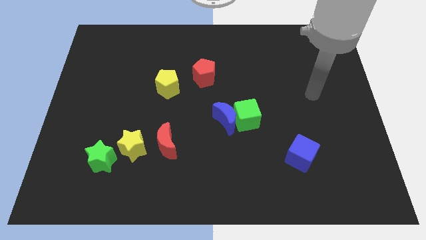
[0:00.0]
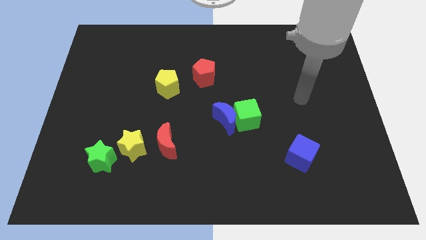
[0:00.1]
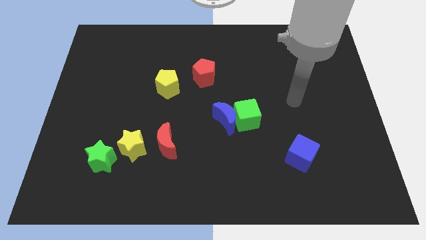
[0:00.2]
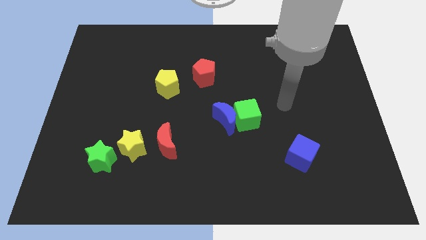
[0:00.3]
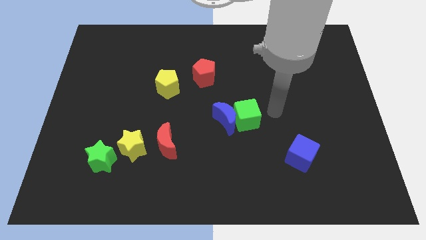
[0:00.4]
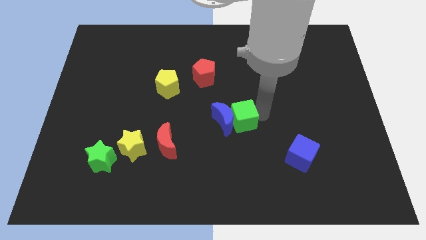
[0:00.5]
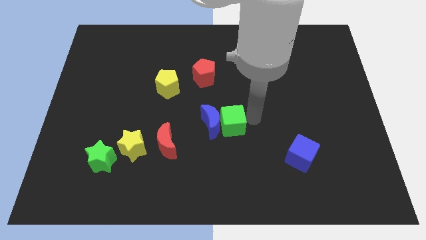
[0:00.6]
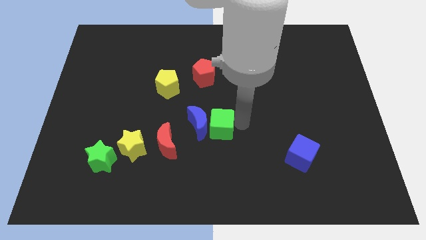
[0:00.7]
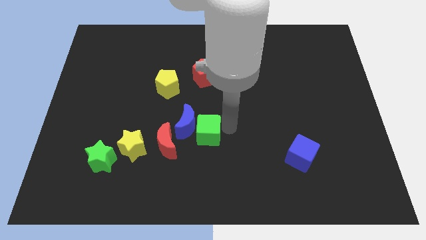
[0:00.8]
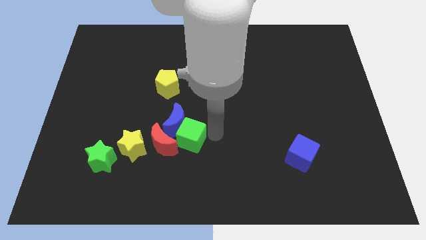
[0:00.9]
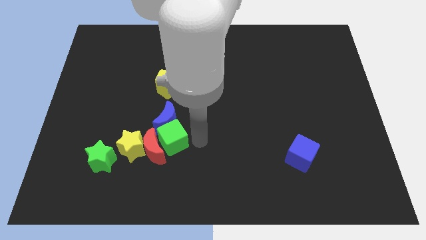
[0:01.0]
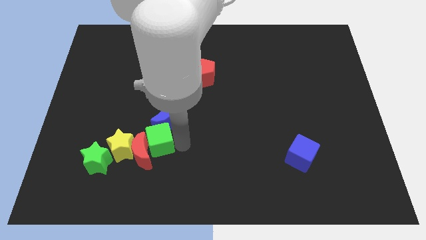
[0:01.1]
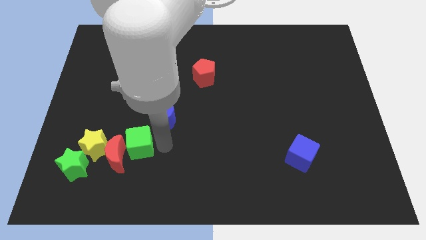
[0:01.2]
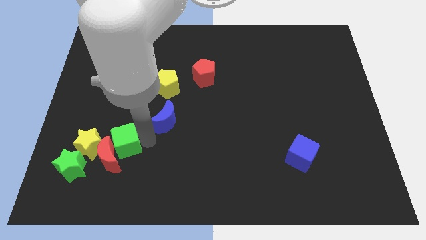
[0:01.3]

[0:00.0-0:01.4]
separate the blue moon from the green cube

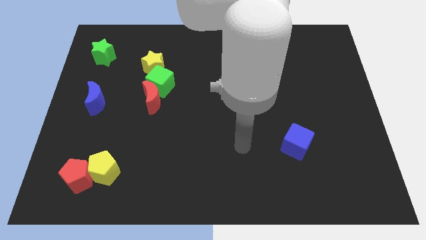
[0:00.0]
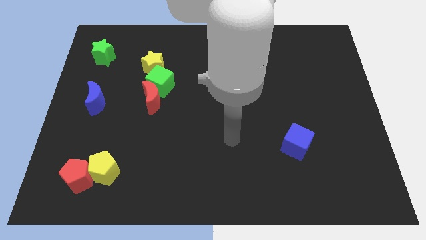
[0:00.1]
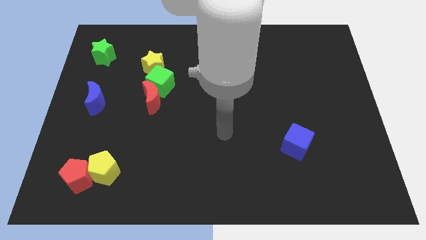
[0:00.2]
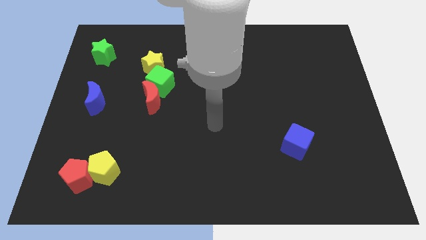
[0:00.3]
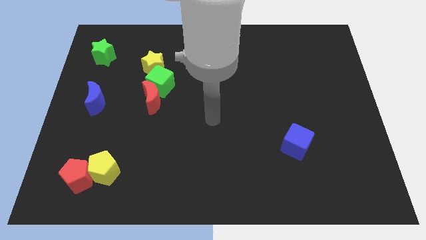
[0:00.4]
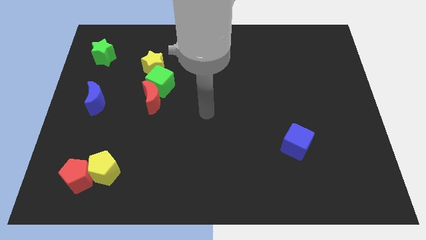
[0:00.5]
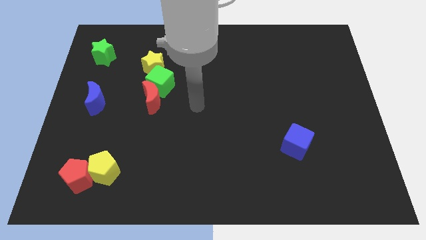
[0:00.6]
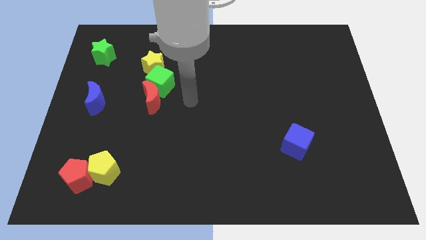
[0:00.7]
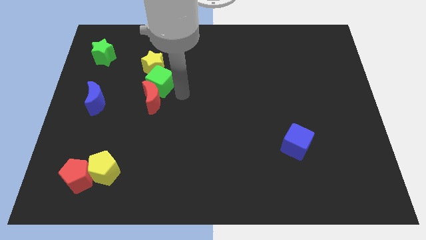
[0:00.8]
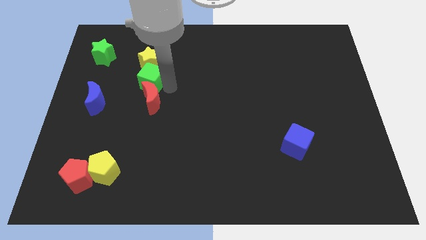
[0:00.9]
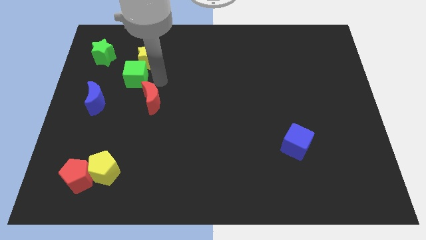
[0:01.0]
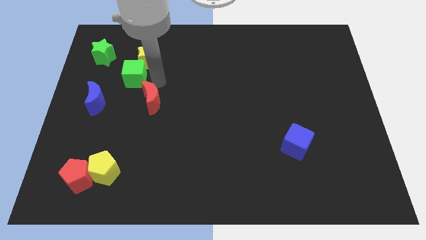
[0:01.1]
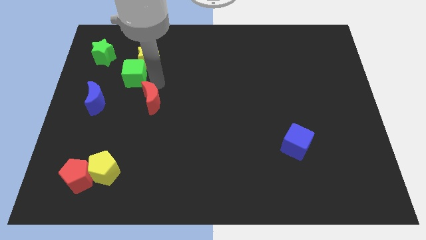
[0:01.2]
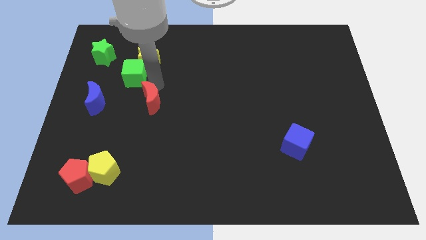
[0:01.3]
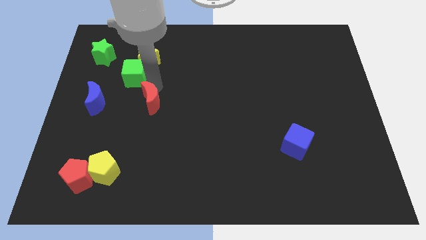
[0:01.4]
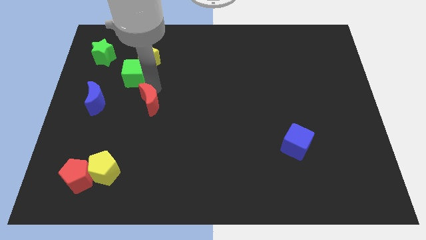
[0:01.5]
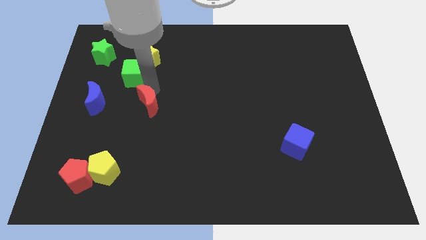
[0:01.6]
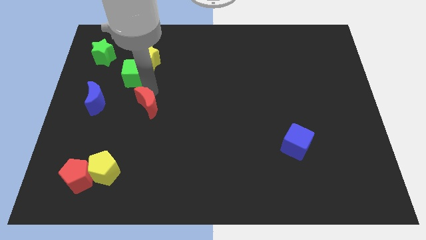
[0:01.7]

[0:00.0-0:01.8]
pull the red moon apart from the green cube

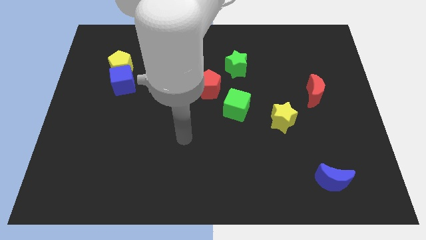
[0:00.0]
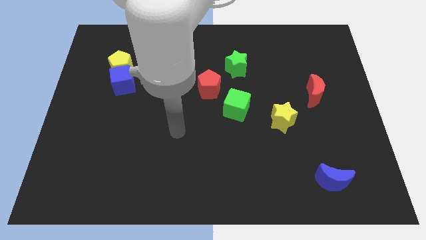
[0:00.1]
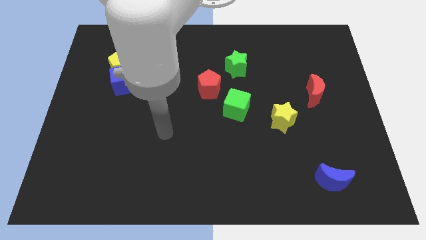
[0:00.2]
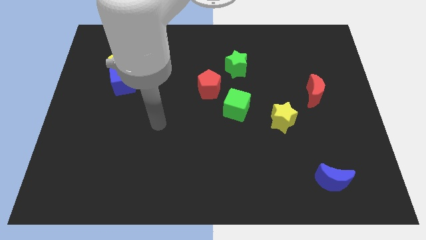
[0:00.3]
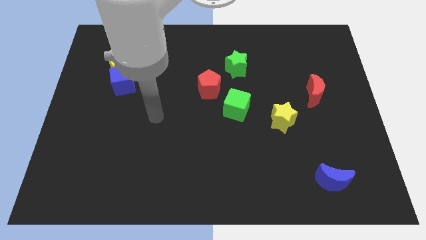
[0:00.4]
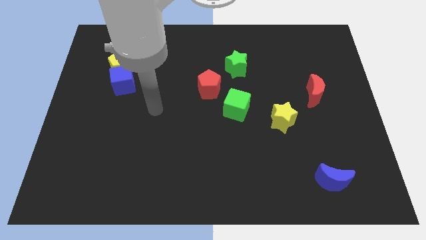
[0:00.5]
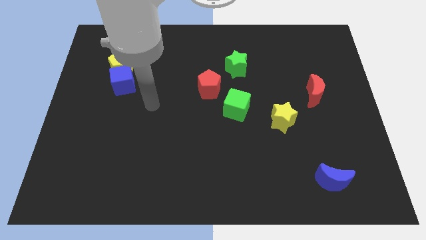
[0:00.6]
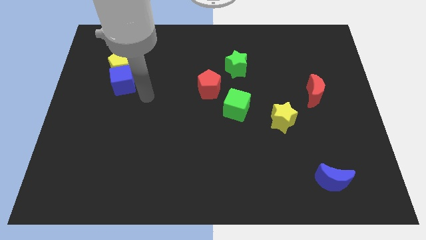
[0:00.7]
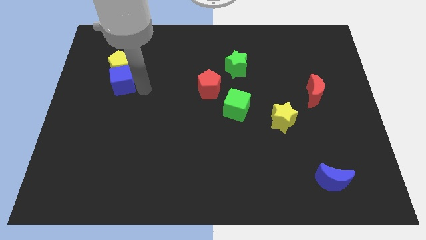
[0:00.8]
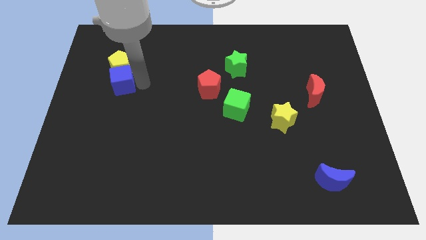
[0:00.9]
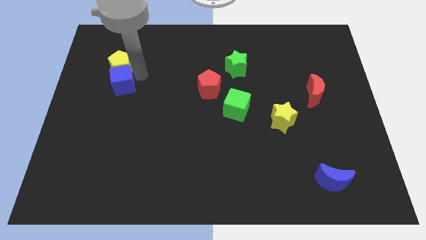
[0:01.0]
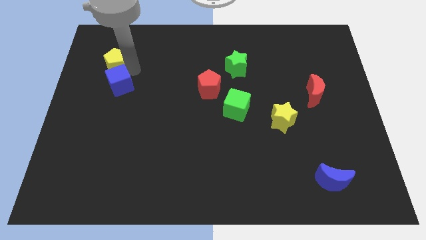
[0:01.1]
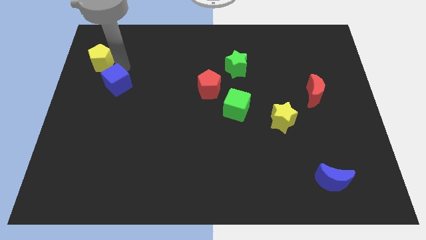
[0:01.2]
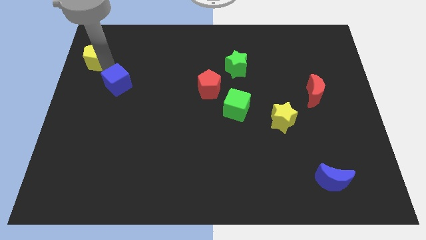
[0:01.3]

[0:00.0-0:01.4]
pull the blue cube apart from the yellow pentagon

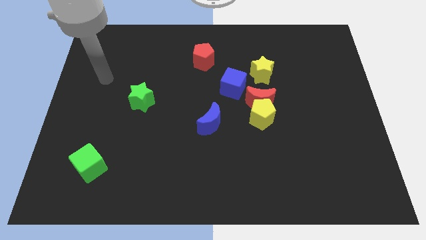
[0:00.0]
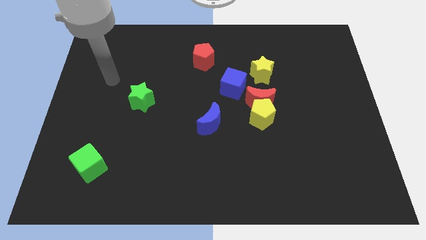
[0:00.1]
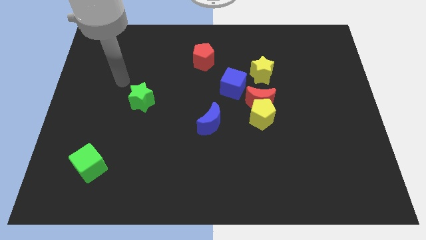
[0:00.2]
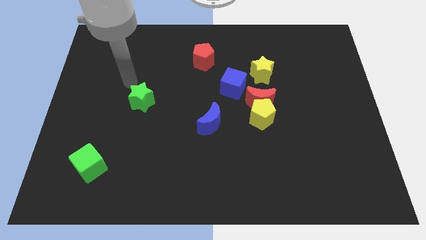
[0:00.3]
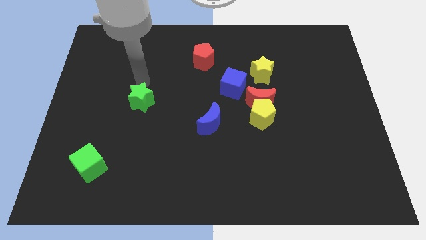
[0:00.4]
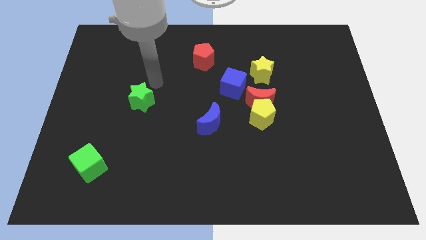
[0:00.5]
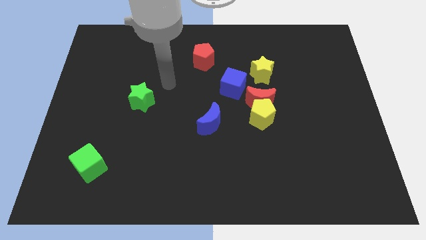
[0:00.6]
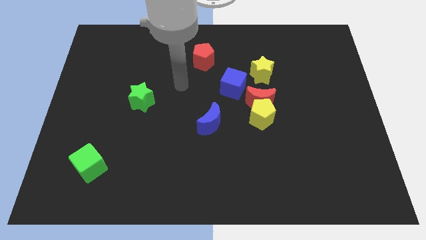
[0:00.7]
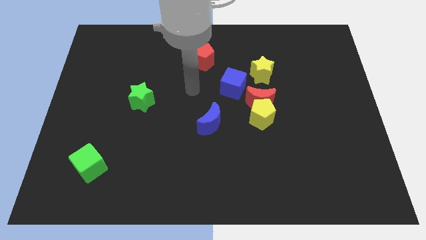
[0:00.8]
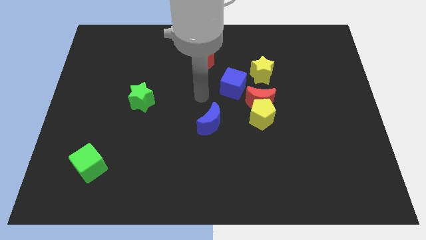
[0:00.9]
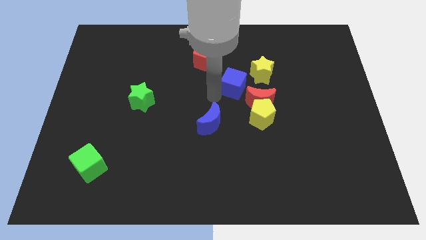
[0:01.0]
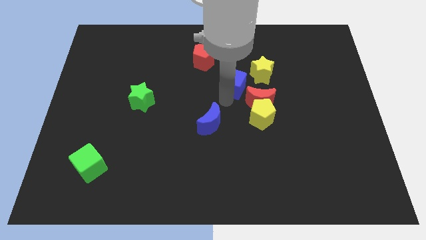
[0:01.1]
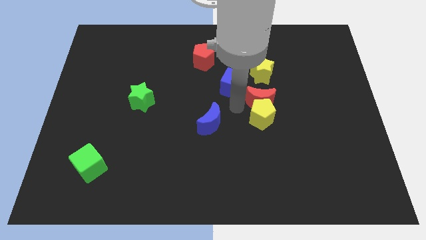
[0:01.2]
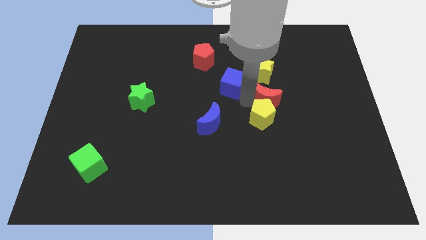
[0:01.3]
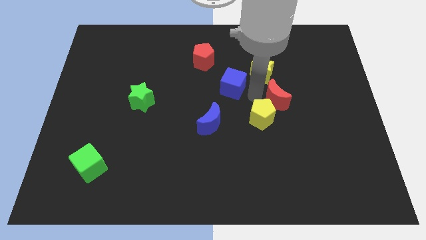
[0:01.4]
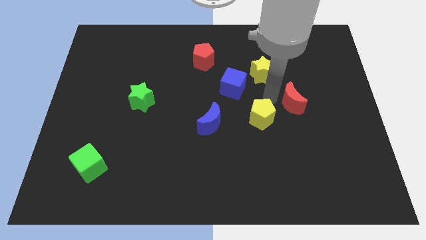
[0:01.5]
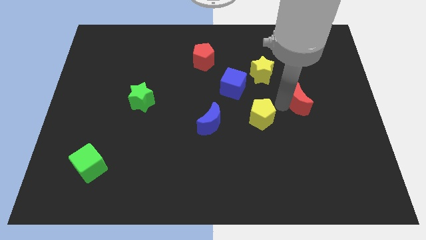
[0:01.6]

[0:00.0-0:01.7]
separate the yellow pentagon from the red moon

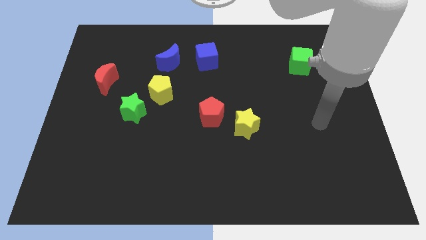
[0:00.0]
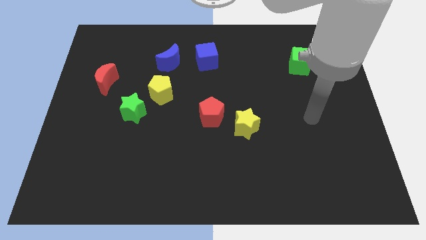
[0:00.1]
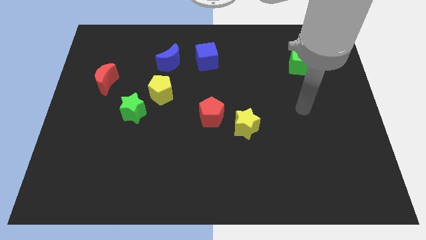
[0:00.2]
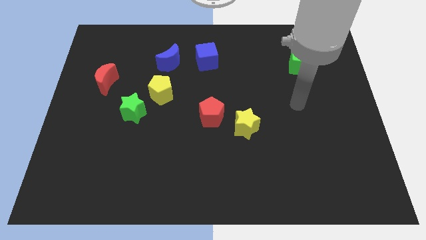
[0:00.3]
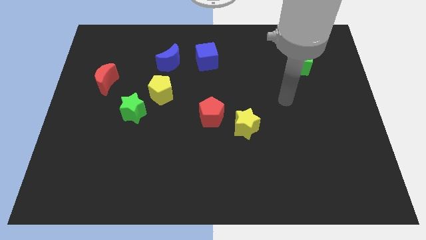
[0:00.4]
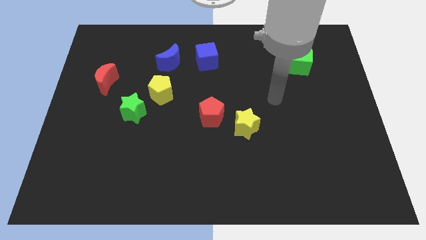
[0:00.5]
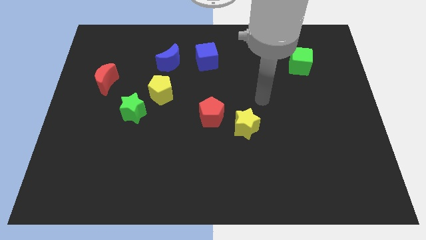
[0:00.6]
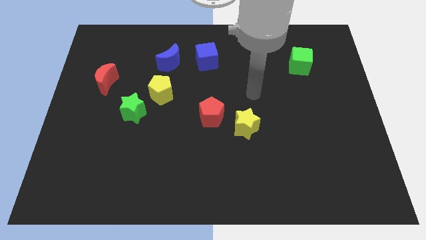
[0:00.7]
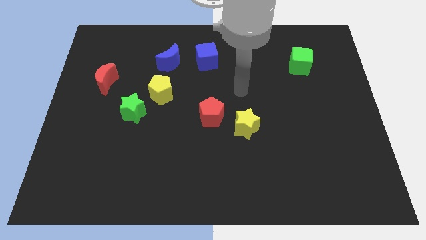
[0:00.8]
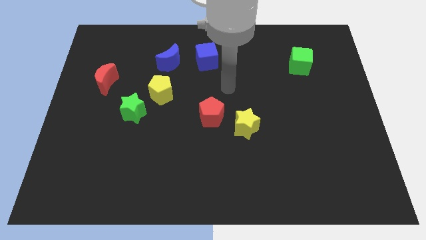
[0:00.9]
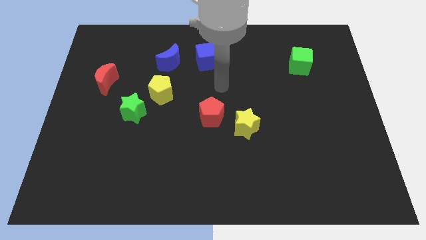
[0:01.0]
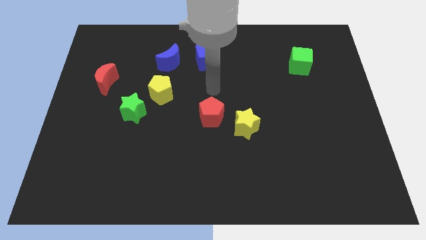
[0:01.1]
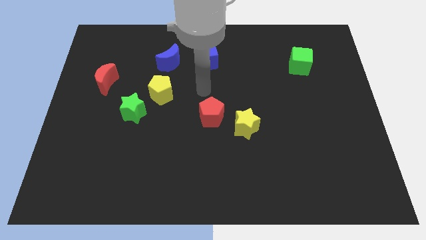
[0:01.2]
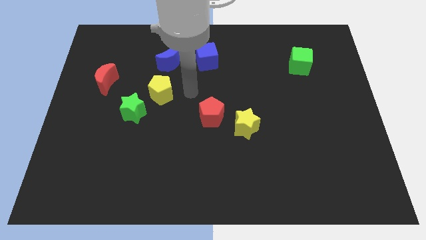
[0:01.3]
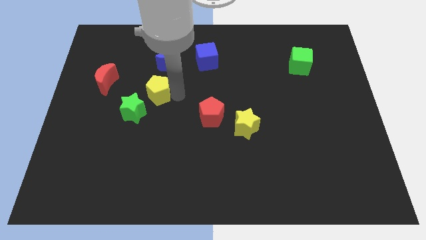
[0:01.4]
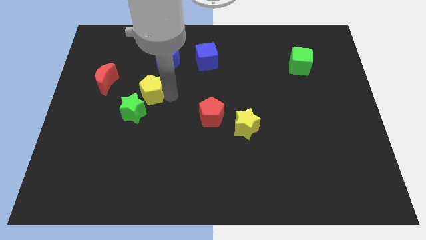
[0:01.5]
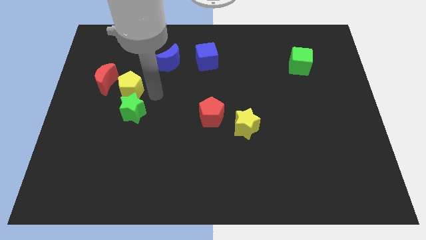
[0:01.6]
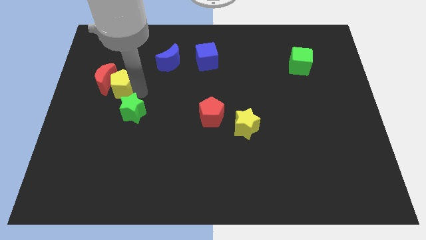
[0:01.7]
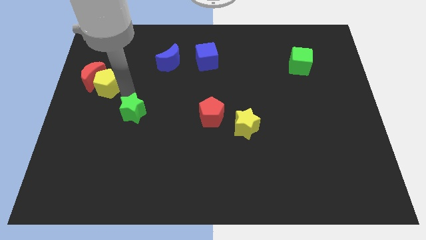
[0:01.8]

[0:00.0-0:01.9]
move the green star away from the yellow pentagon

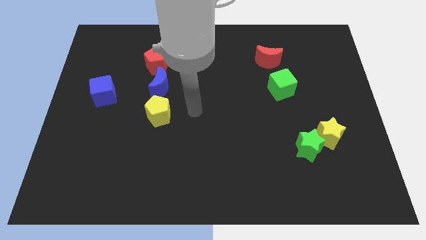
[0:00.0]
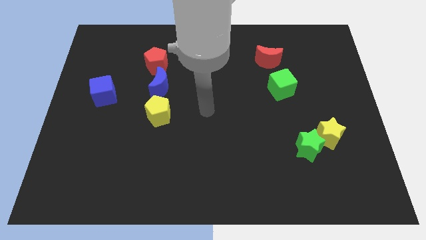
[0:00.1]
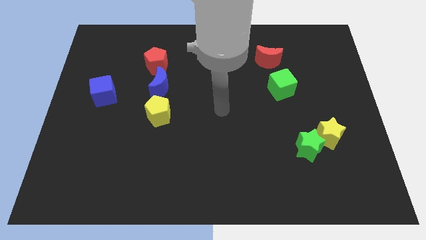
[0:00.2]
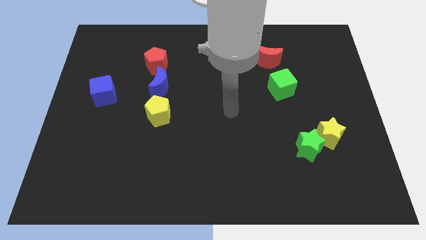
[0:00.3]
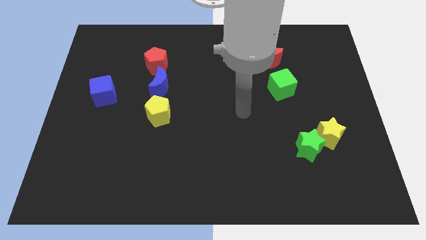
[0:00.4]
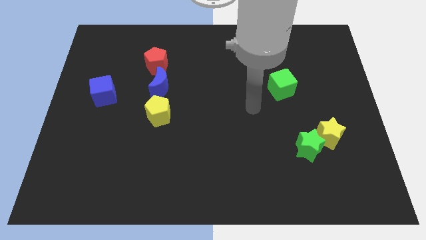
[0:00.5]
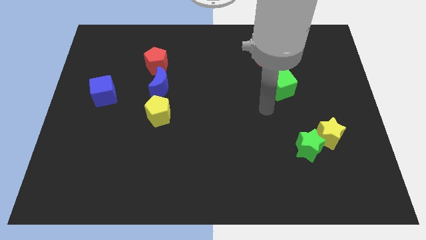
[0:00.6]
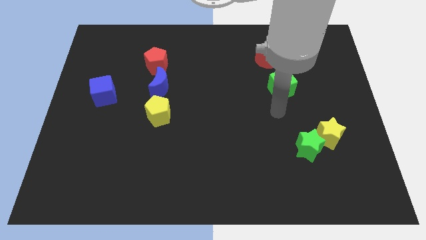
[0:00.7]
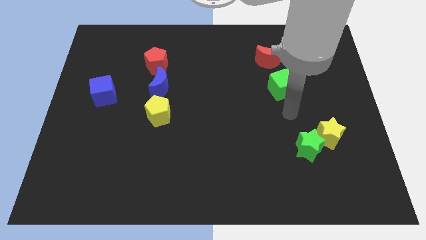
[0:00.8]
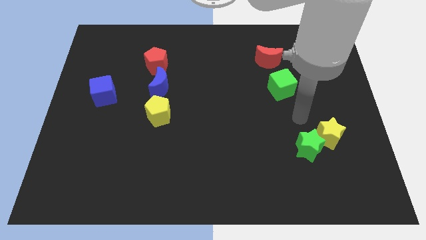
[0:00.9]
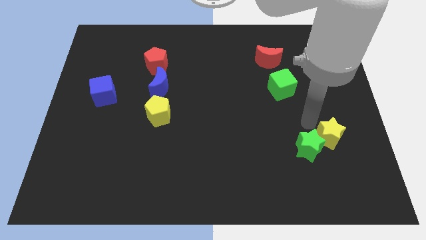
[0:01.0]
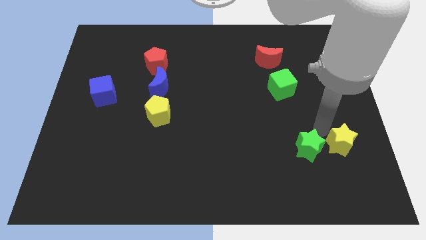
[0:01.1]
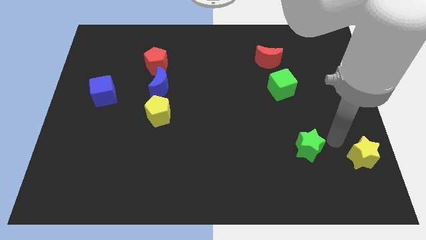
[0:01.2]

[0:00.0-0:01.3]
move the green star away from the yellow star
